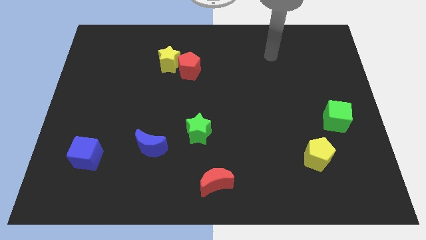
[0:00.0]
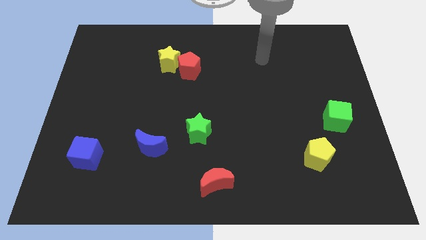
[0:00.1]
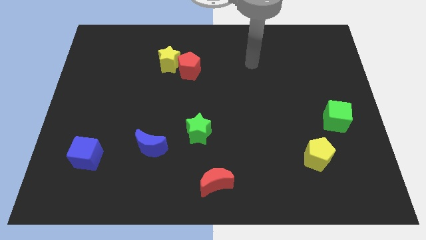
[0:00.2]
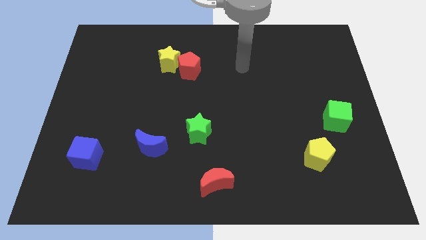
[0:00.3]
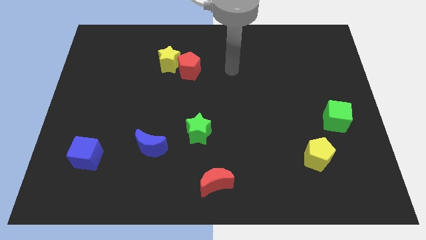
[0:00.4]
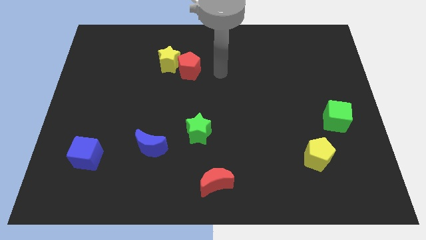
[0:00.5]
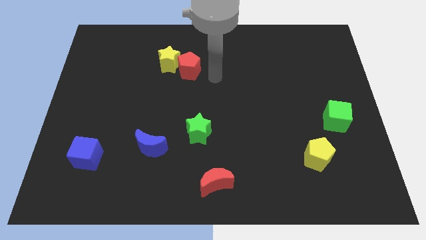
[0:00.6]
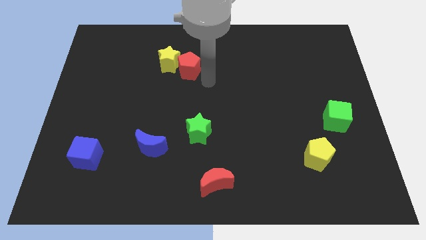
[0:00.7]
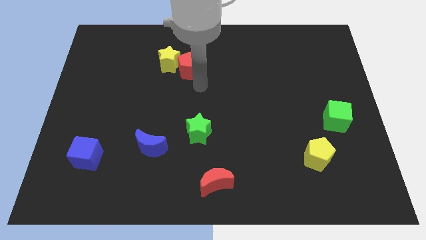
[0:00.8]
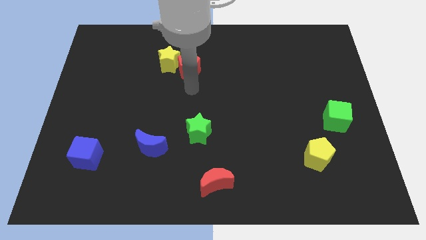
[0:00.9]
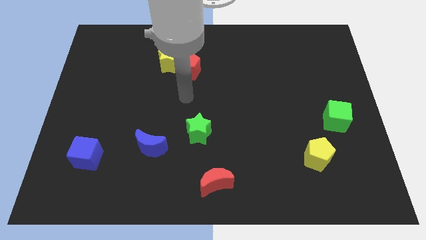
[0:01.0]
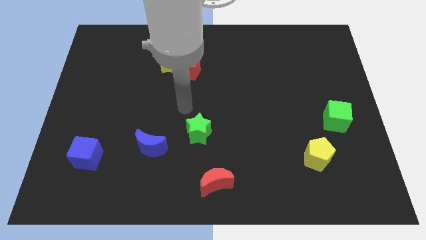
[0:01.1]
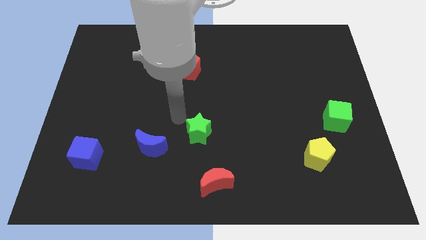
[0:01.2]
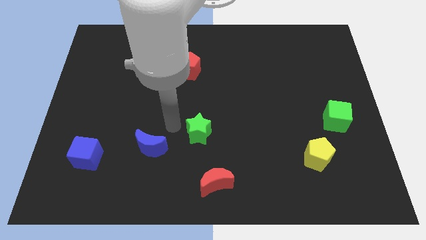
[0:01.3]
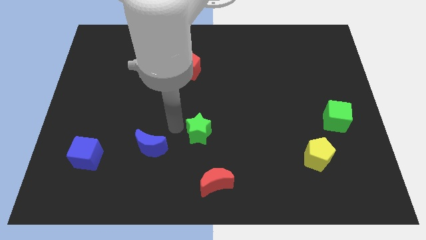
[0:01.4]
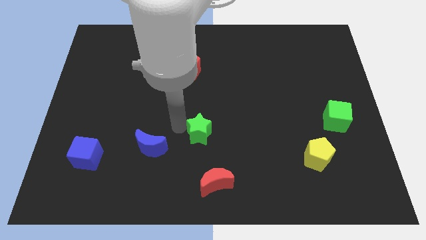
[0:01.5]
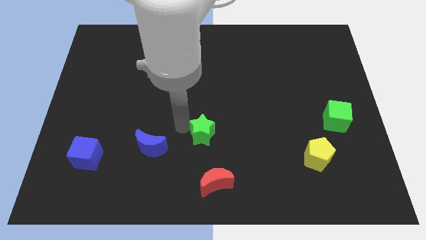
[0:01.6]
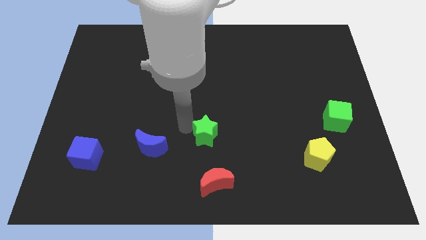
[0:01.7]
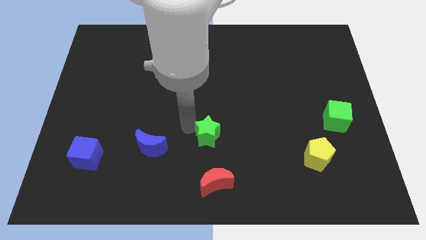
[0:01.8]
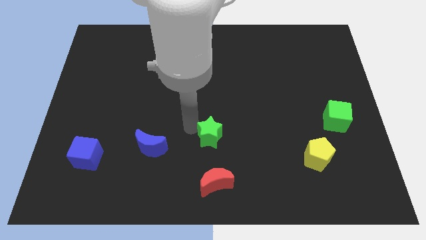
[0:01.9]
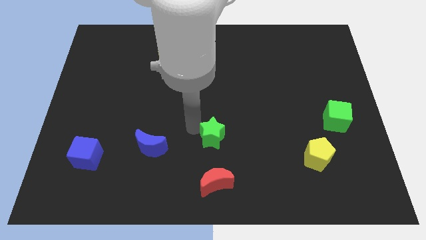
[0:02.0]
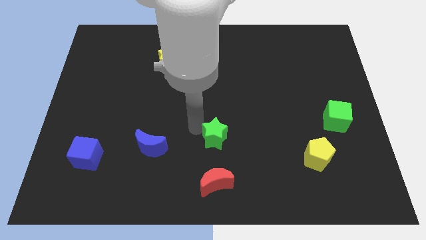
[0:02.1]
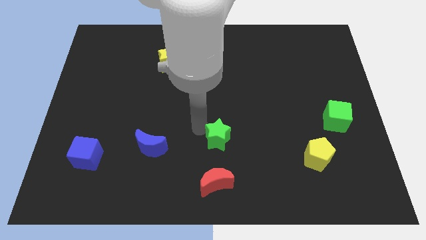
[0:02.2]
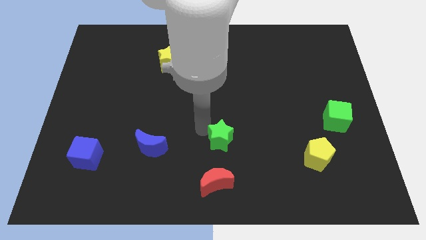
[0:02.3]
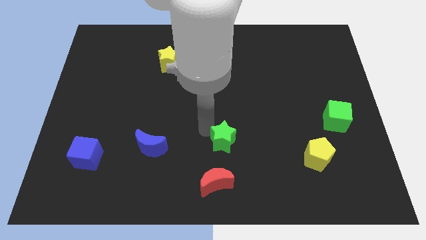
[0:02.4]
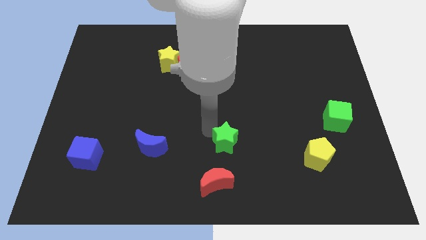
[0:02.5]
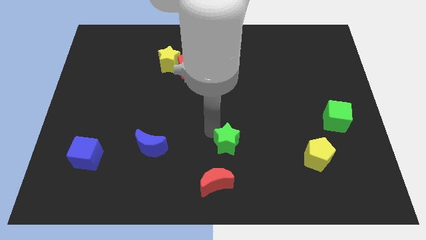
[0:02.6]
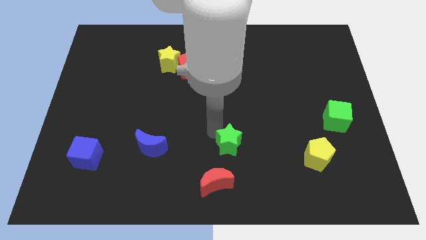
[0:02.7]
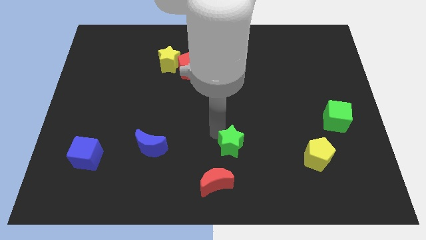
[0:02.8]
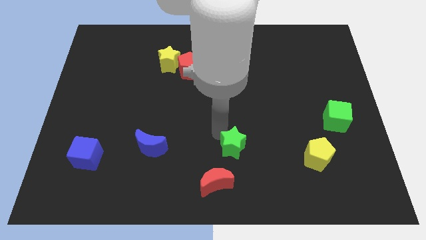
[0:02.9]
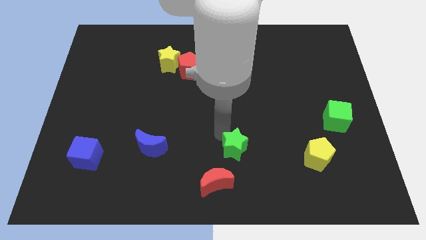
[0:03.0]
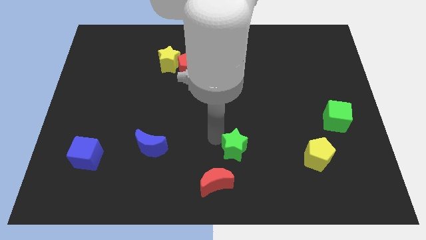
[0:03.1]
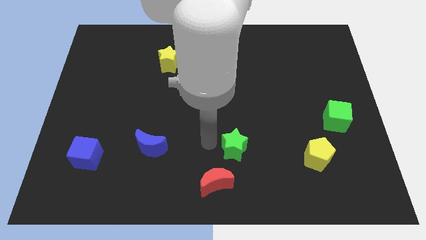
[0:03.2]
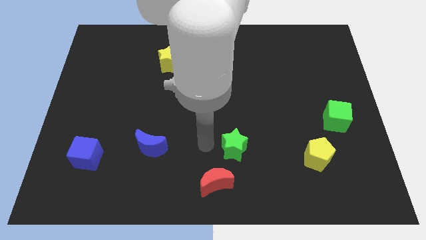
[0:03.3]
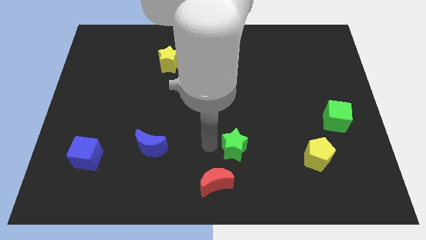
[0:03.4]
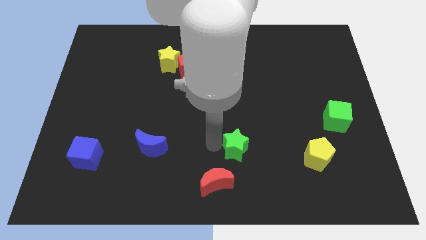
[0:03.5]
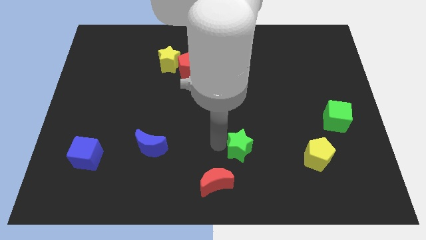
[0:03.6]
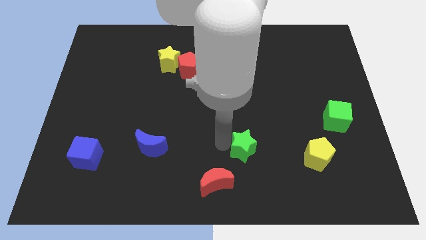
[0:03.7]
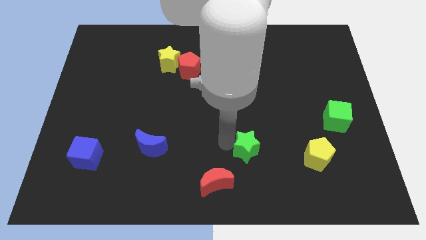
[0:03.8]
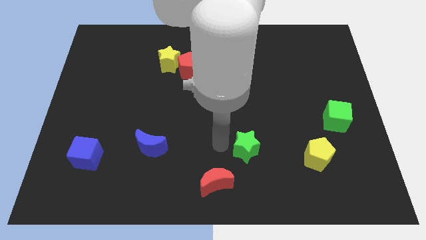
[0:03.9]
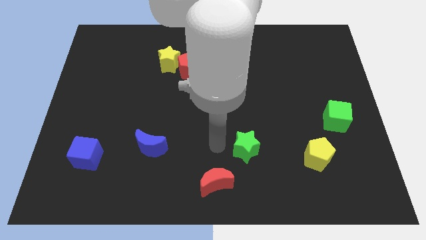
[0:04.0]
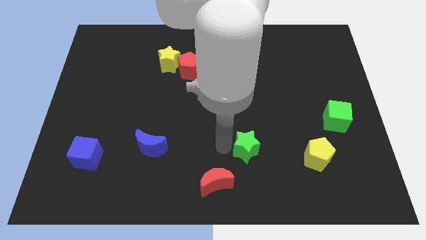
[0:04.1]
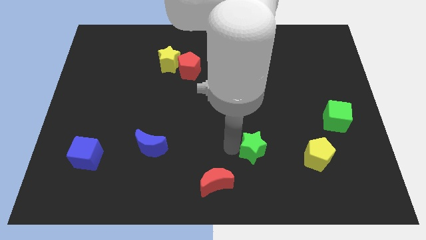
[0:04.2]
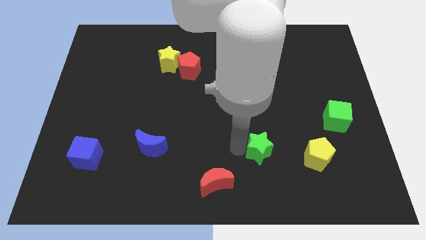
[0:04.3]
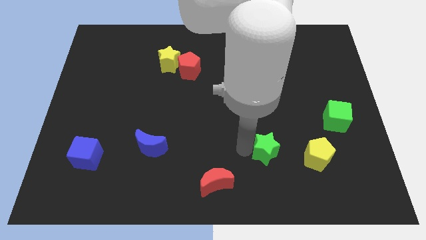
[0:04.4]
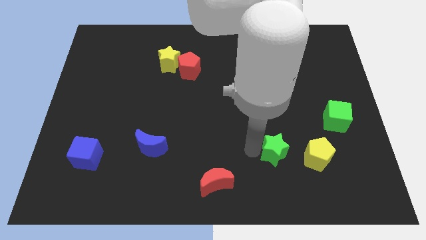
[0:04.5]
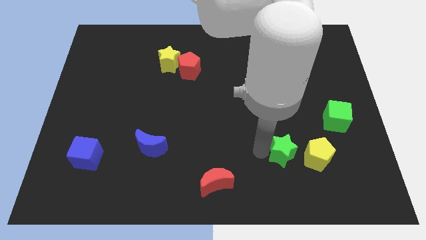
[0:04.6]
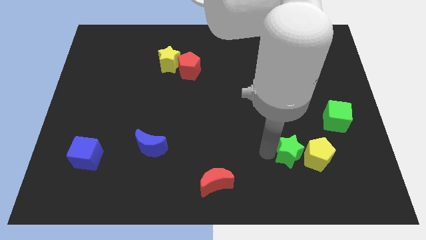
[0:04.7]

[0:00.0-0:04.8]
slide the green star towards the yellow pentagon

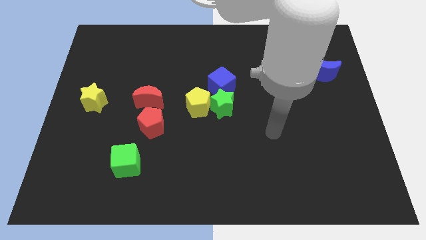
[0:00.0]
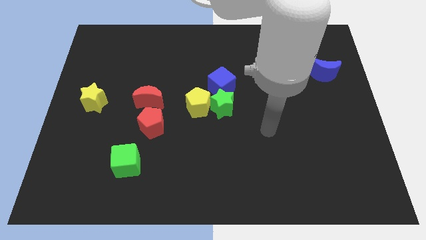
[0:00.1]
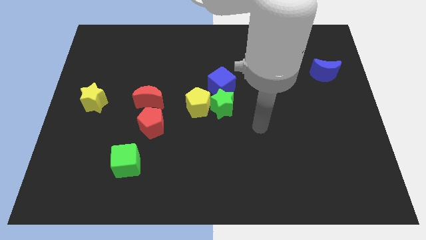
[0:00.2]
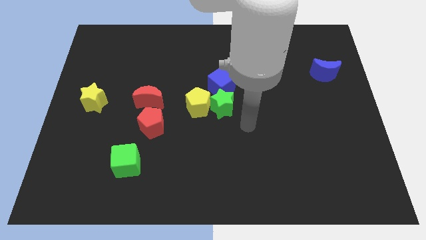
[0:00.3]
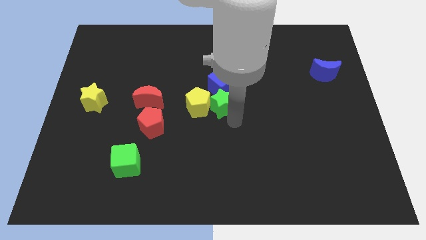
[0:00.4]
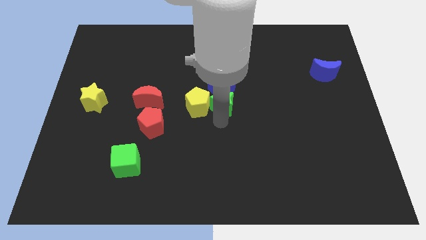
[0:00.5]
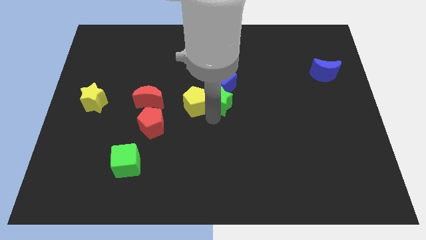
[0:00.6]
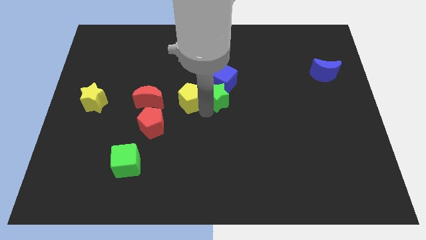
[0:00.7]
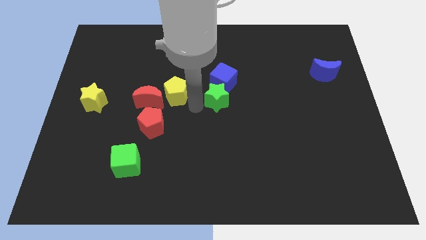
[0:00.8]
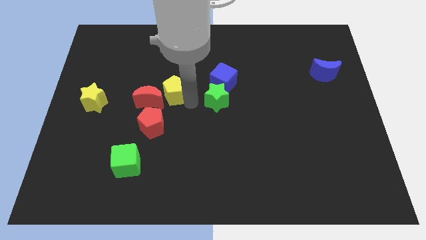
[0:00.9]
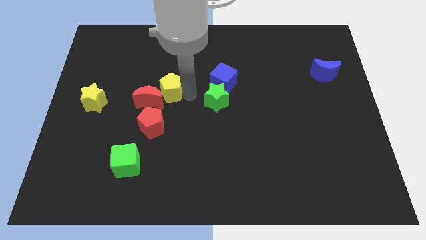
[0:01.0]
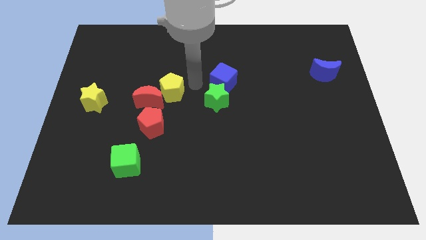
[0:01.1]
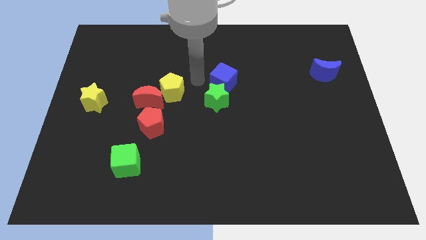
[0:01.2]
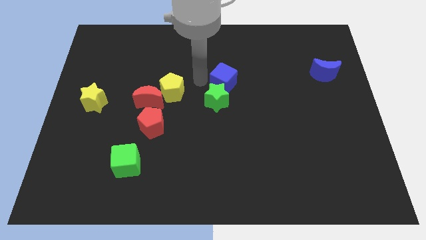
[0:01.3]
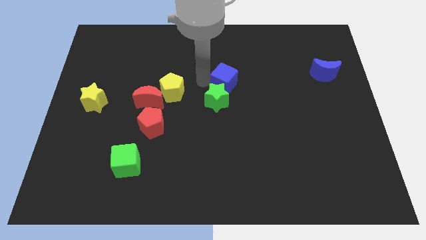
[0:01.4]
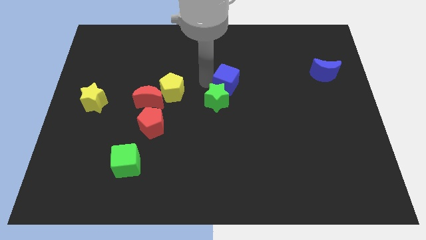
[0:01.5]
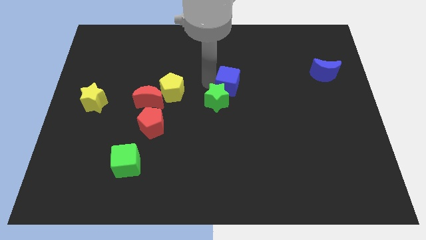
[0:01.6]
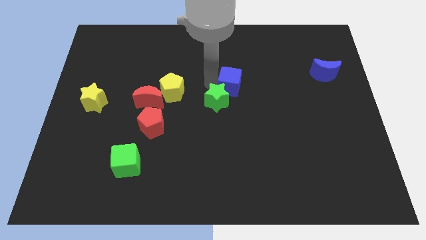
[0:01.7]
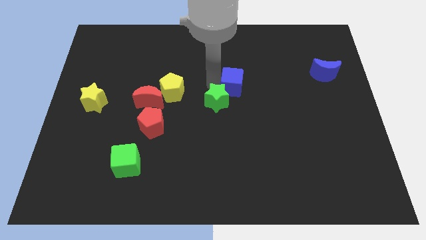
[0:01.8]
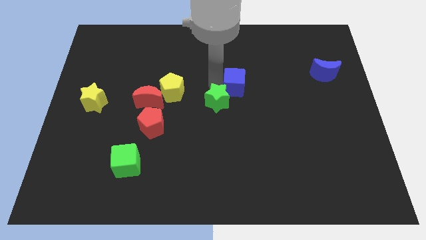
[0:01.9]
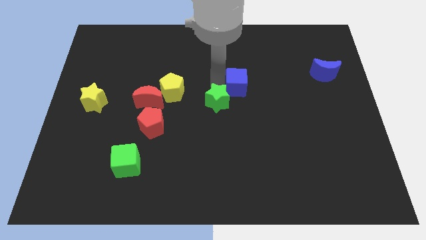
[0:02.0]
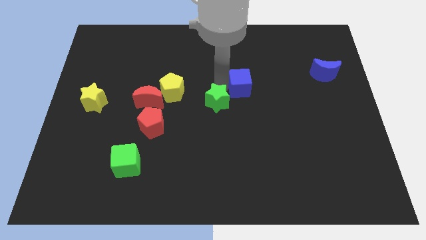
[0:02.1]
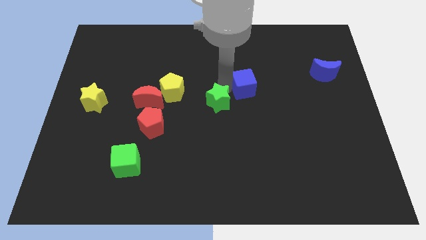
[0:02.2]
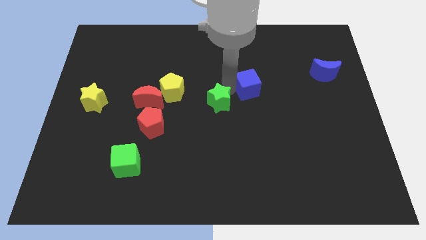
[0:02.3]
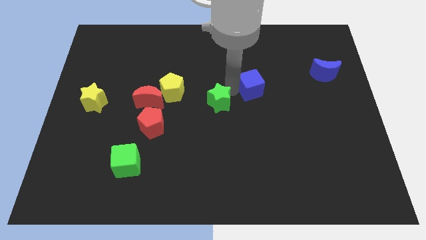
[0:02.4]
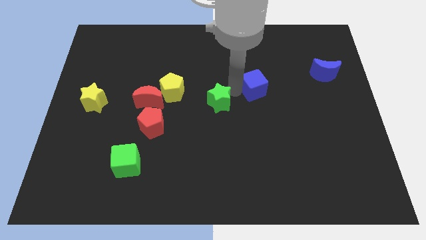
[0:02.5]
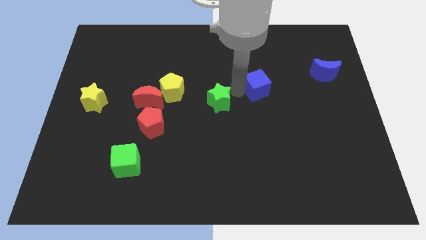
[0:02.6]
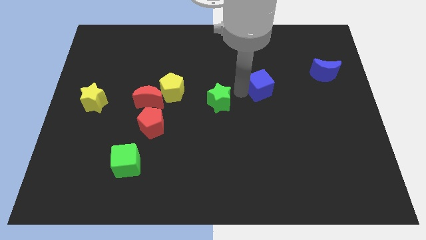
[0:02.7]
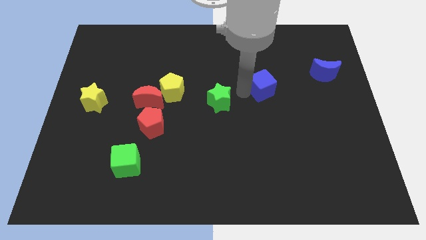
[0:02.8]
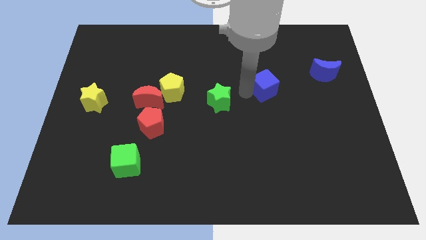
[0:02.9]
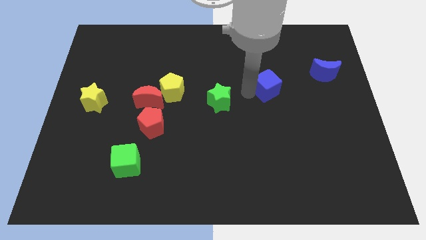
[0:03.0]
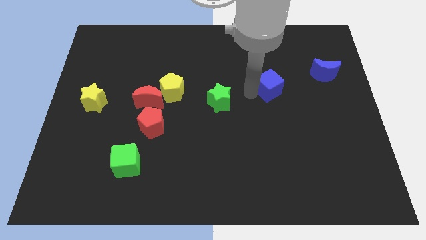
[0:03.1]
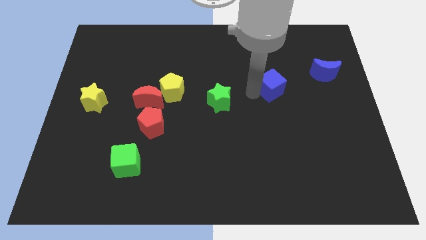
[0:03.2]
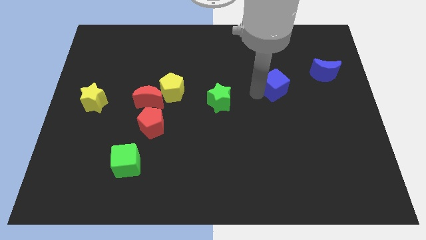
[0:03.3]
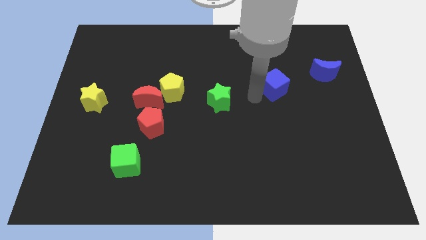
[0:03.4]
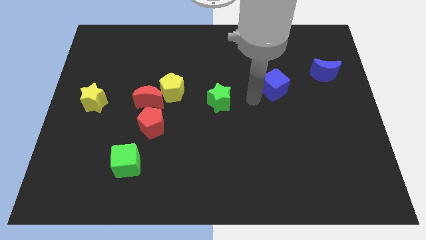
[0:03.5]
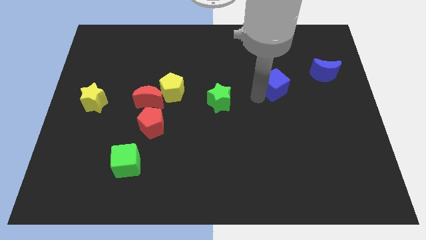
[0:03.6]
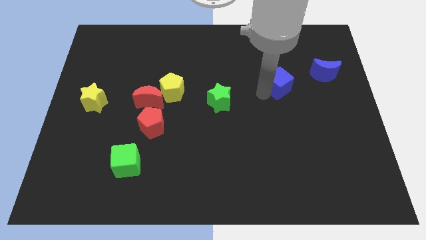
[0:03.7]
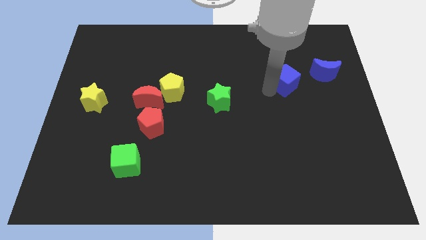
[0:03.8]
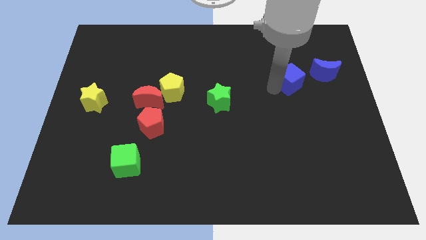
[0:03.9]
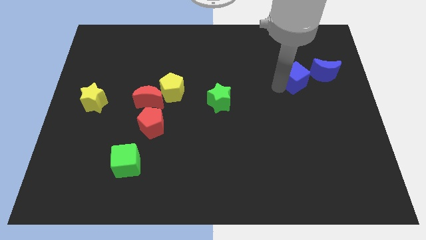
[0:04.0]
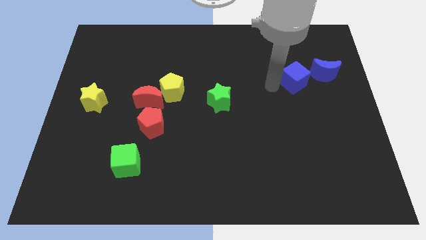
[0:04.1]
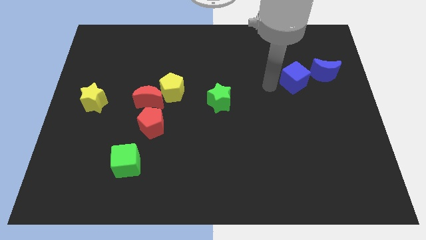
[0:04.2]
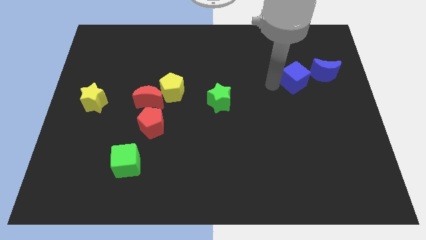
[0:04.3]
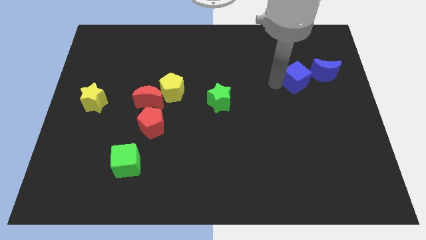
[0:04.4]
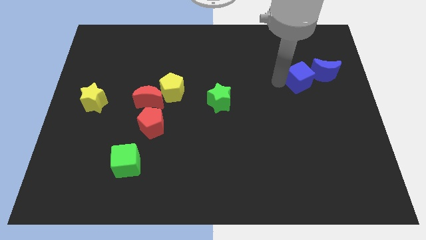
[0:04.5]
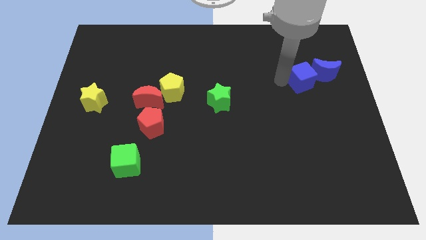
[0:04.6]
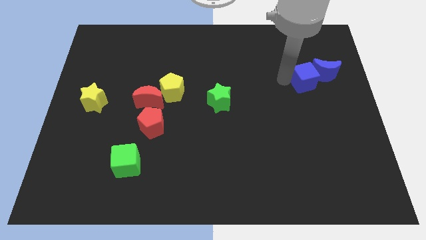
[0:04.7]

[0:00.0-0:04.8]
move the blue cube next to the blue moon
